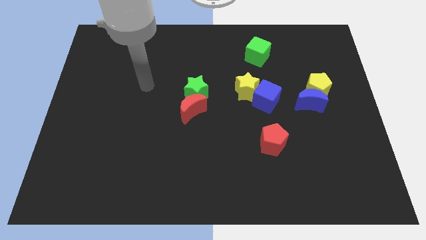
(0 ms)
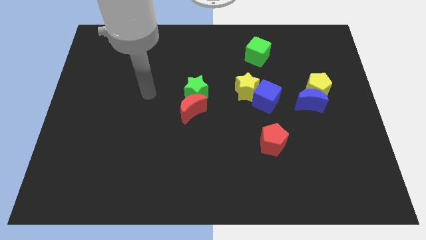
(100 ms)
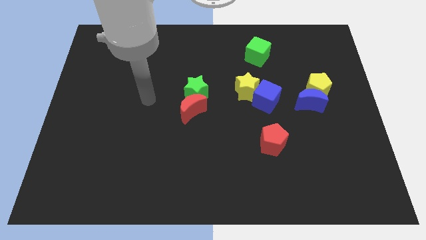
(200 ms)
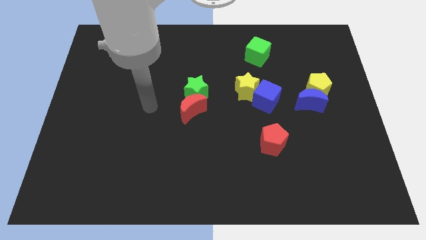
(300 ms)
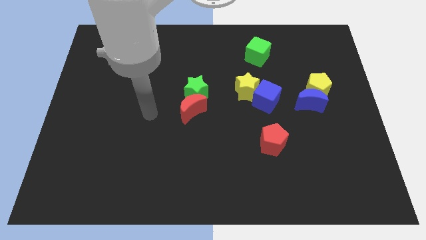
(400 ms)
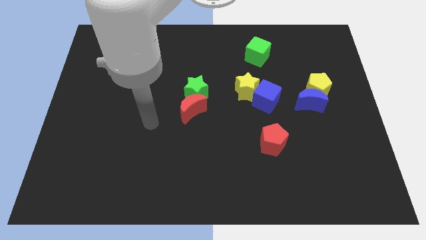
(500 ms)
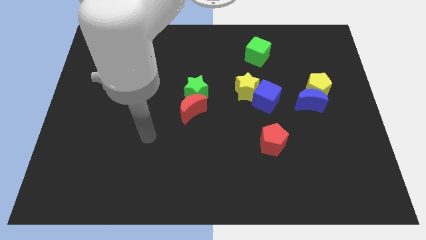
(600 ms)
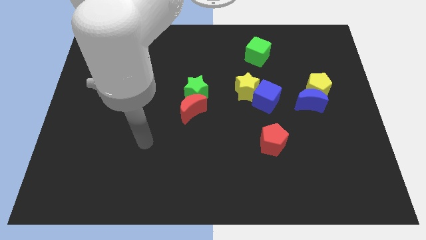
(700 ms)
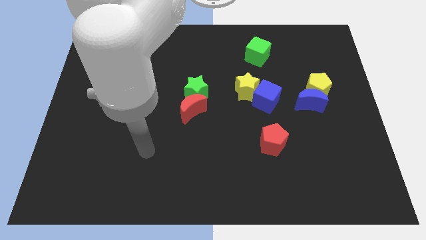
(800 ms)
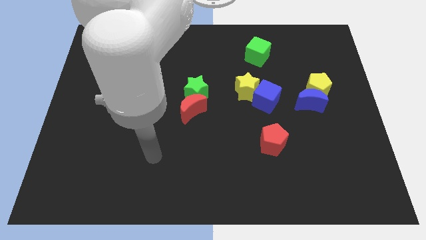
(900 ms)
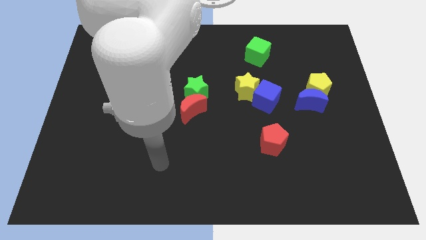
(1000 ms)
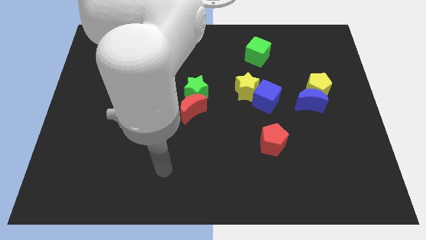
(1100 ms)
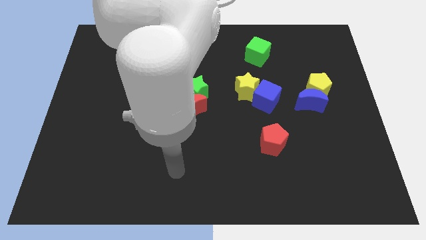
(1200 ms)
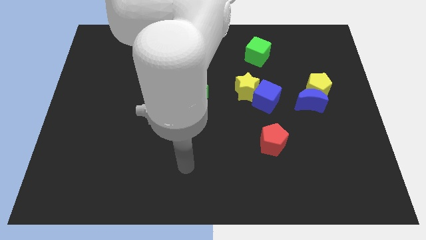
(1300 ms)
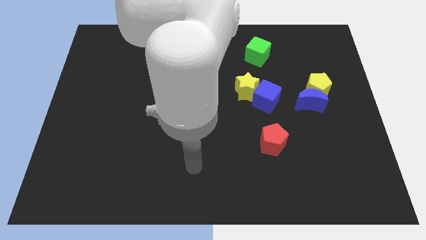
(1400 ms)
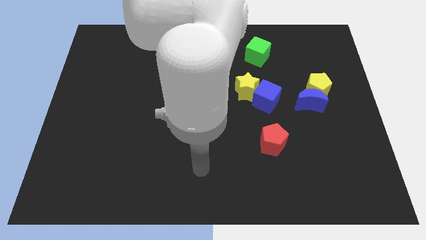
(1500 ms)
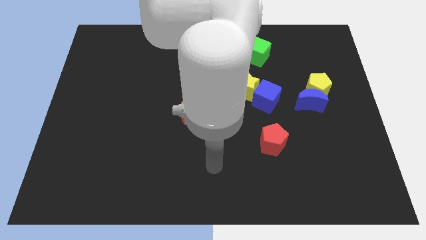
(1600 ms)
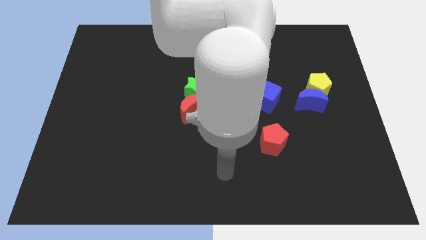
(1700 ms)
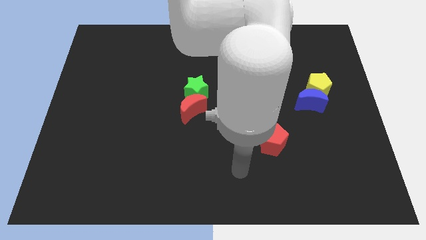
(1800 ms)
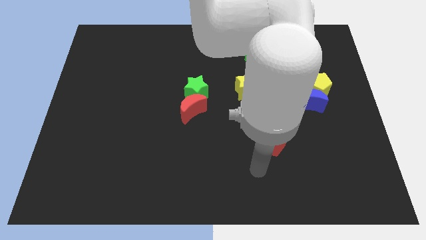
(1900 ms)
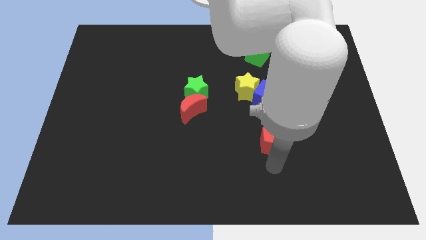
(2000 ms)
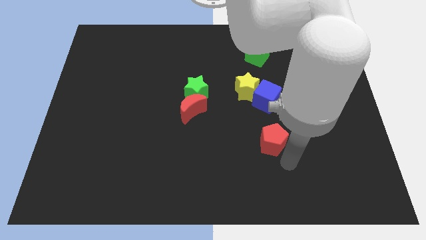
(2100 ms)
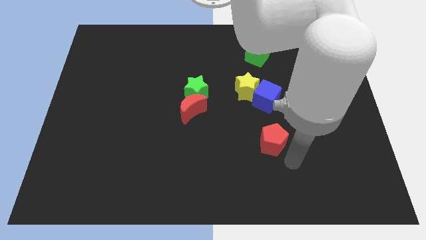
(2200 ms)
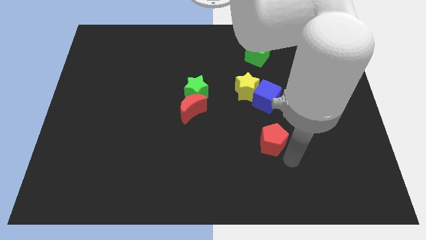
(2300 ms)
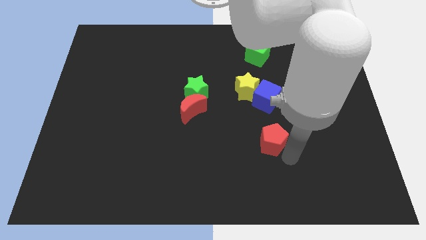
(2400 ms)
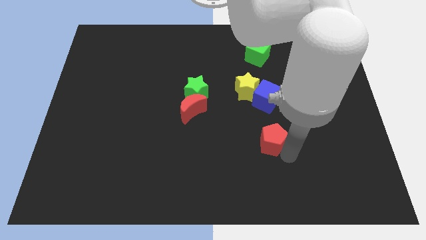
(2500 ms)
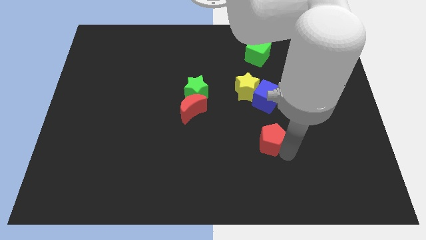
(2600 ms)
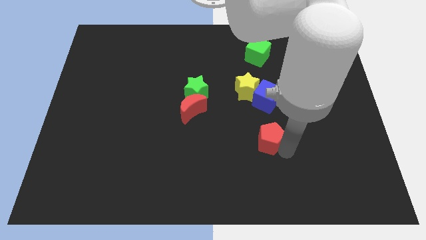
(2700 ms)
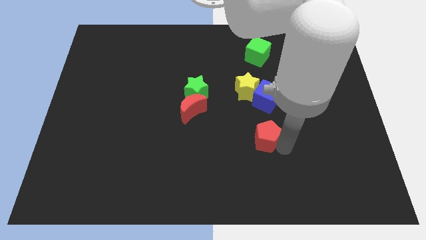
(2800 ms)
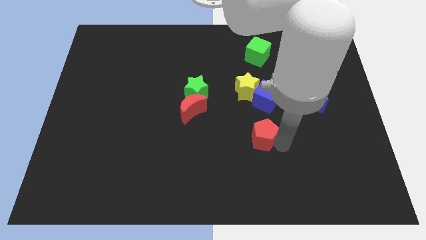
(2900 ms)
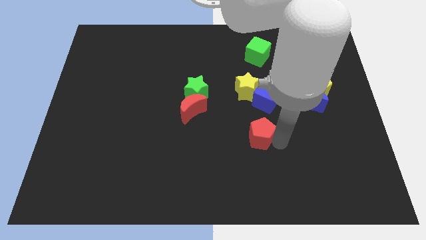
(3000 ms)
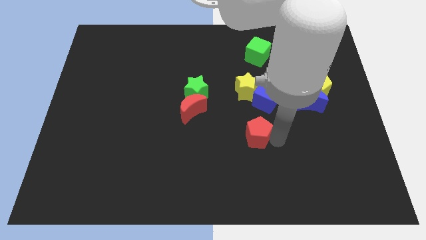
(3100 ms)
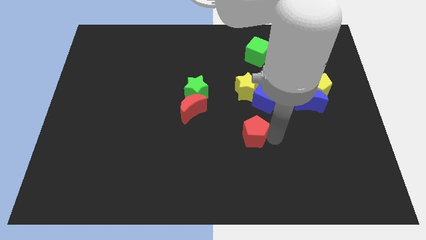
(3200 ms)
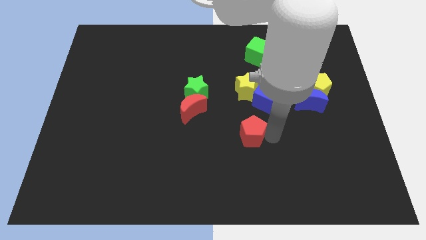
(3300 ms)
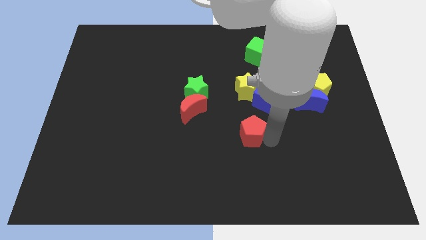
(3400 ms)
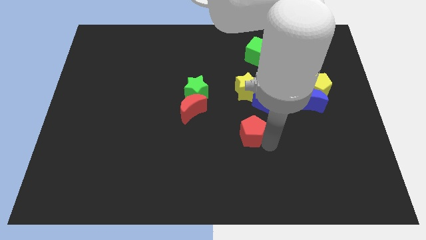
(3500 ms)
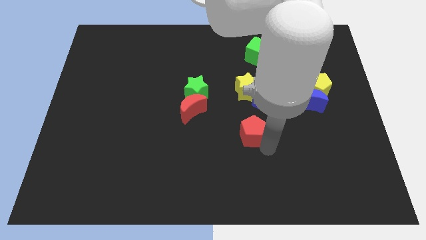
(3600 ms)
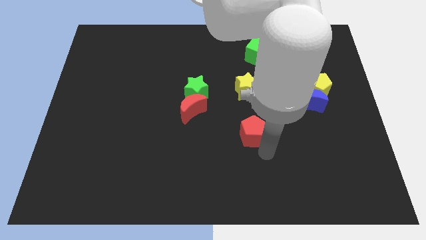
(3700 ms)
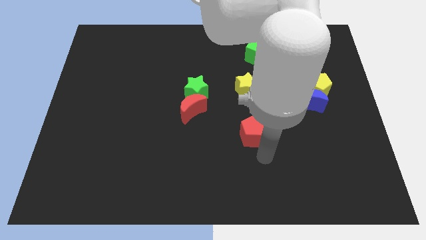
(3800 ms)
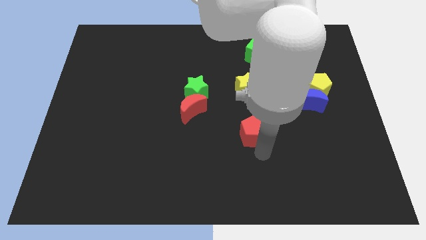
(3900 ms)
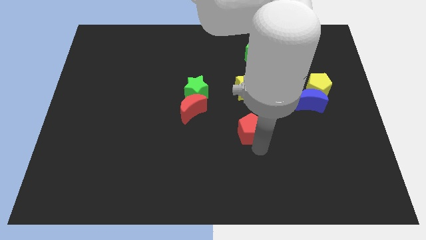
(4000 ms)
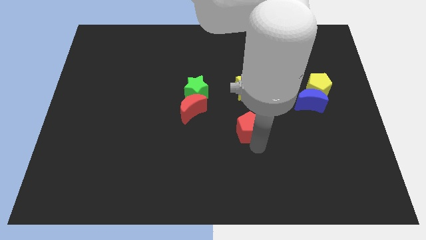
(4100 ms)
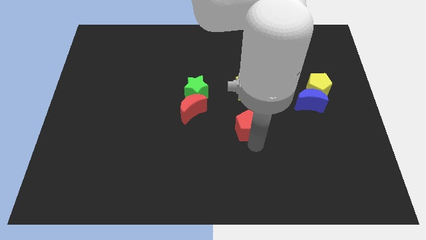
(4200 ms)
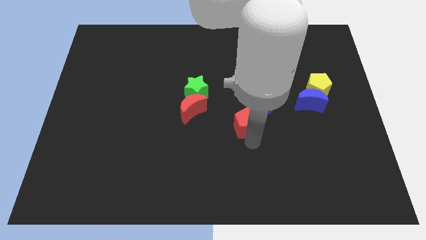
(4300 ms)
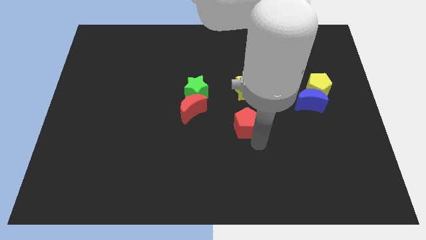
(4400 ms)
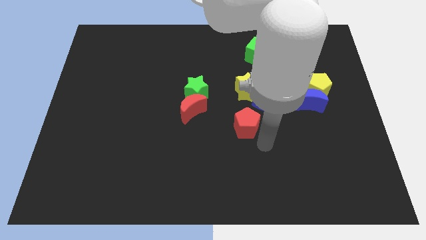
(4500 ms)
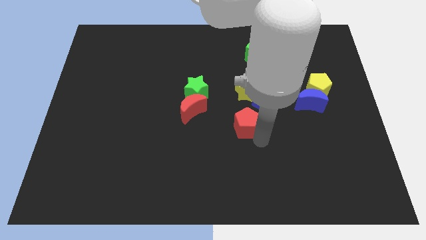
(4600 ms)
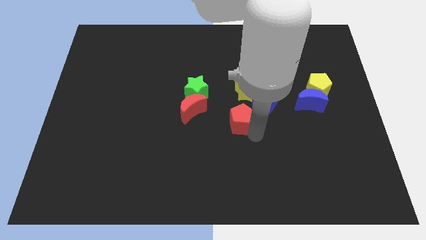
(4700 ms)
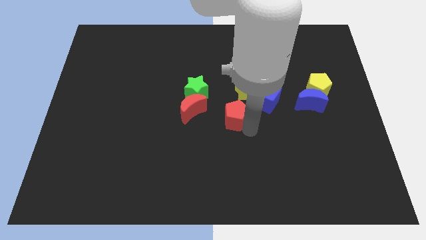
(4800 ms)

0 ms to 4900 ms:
put the red pentagon to the bottom left side of the yellow star

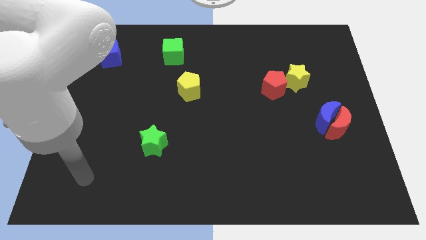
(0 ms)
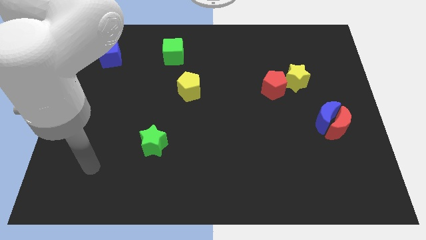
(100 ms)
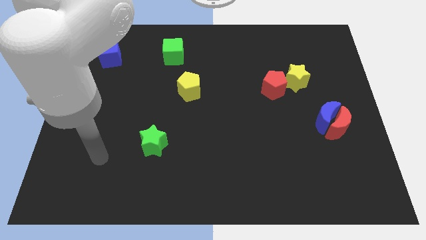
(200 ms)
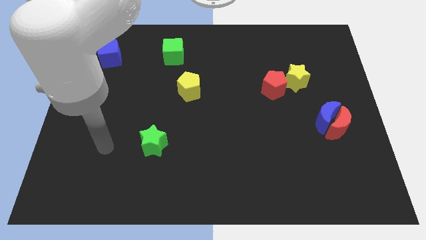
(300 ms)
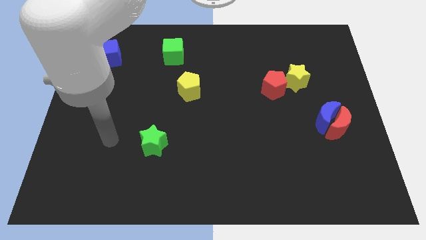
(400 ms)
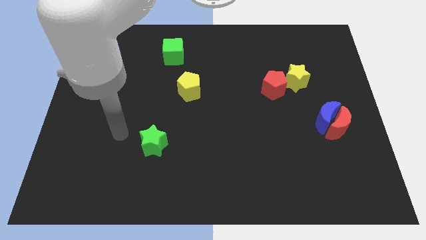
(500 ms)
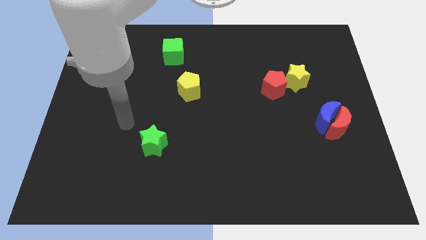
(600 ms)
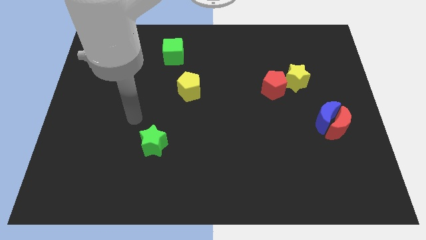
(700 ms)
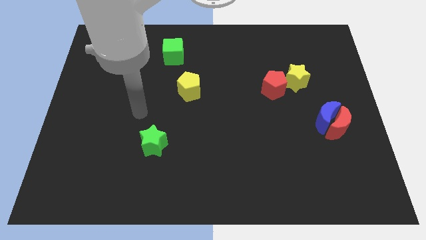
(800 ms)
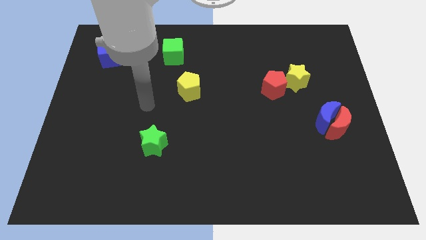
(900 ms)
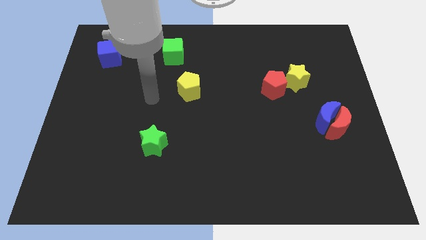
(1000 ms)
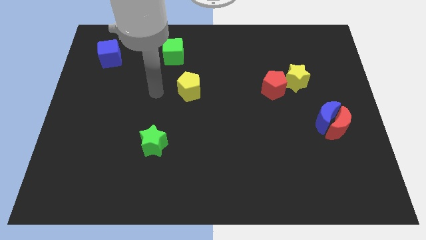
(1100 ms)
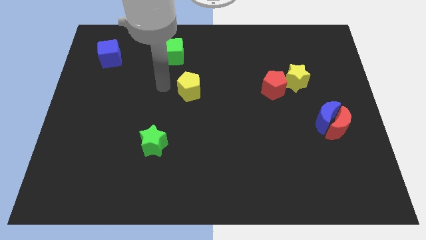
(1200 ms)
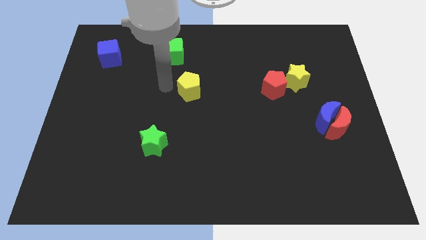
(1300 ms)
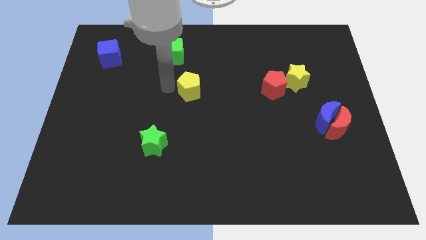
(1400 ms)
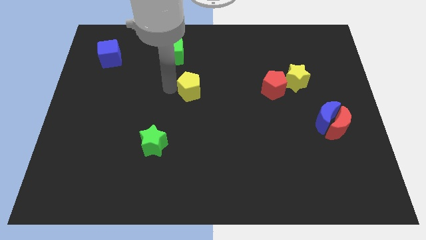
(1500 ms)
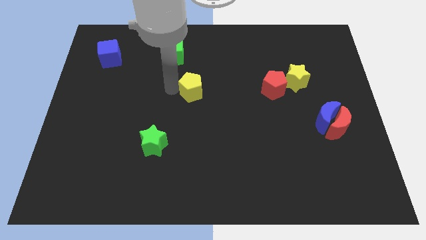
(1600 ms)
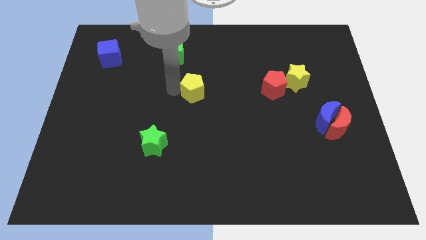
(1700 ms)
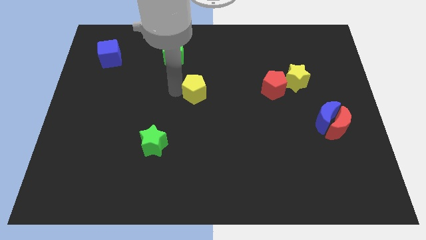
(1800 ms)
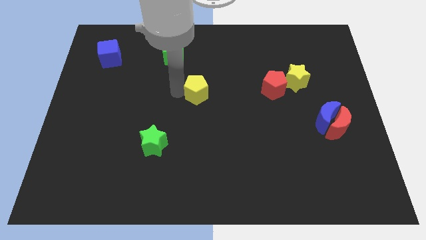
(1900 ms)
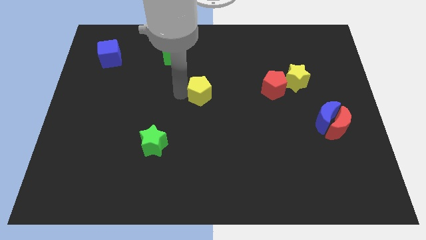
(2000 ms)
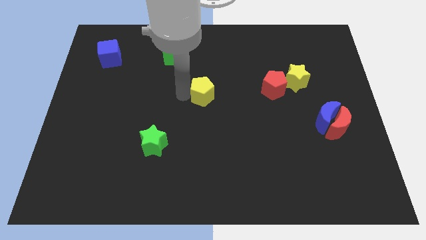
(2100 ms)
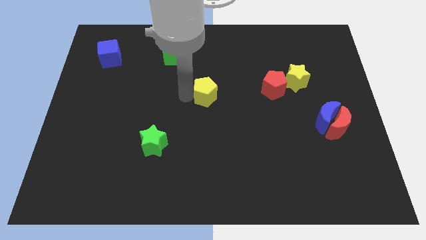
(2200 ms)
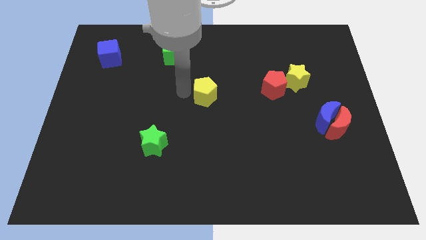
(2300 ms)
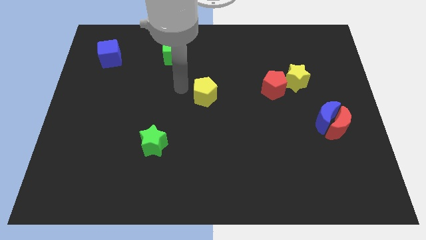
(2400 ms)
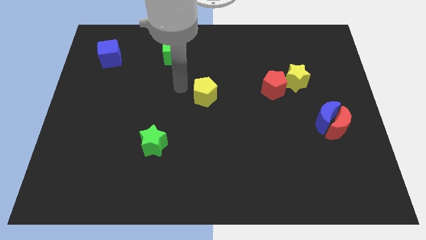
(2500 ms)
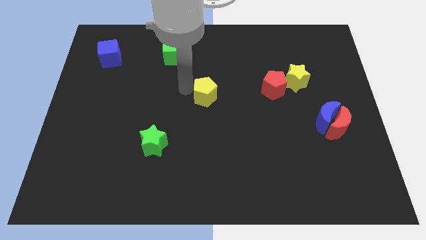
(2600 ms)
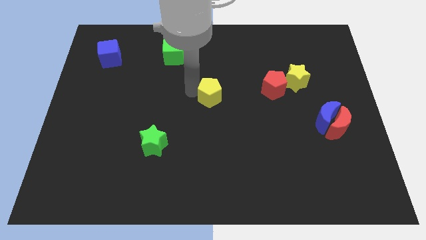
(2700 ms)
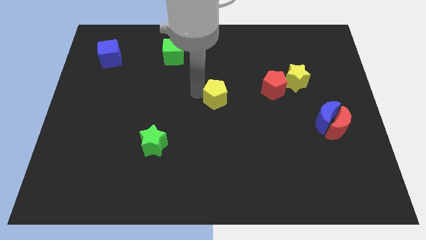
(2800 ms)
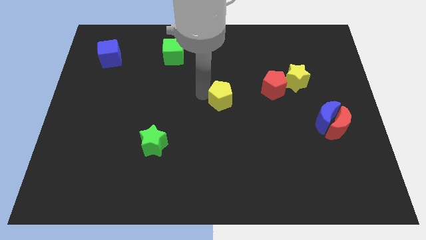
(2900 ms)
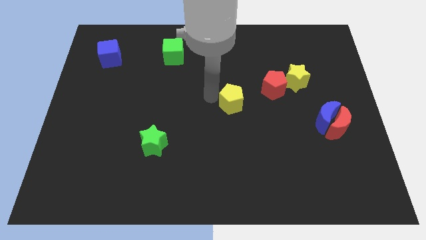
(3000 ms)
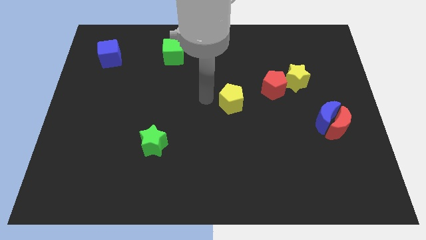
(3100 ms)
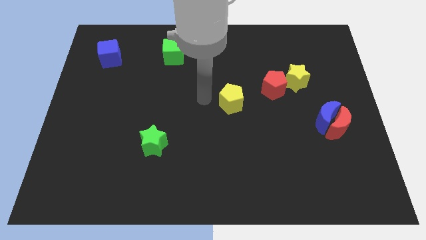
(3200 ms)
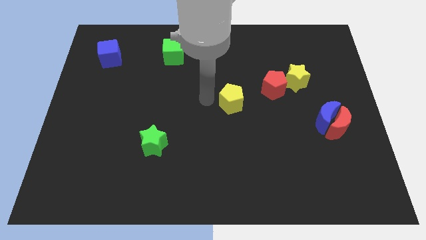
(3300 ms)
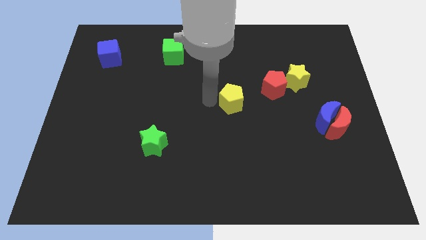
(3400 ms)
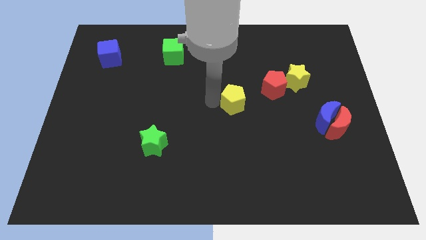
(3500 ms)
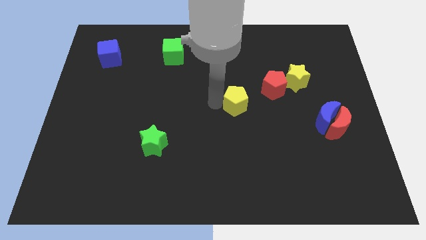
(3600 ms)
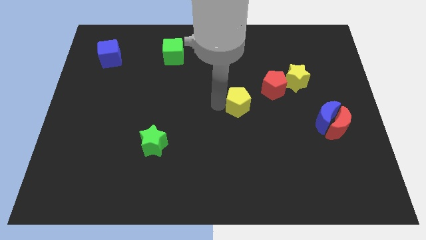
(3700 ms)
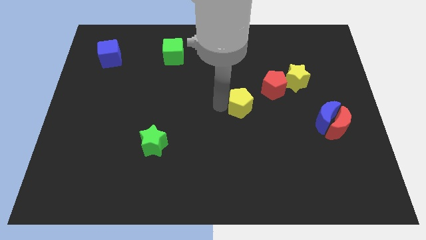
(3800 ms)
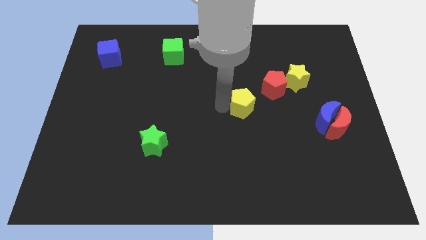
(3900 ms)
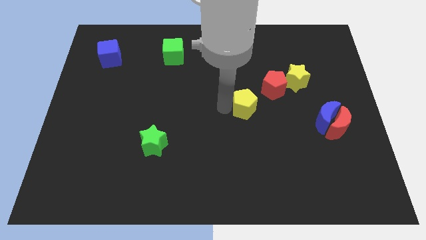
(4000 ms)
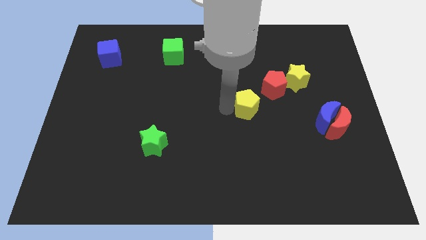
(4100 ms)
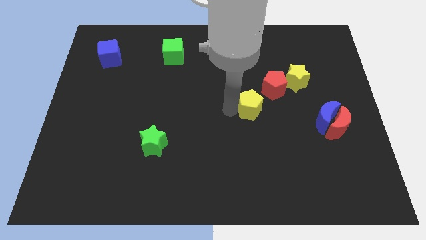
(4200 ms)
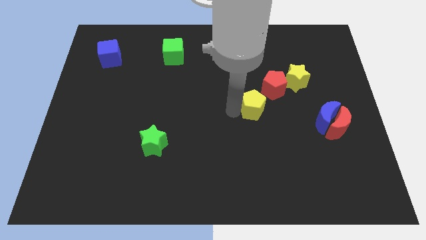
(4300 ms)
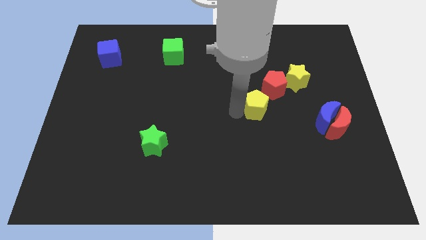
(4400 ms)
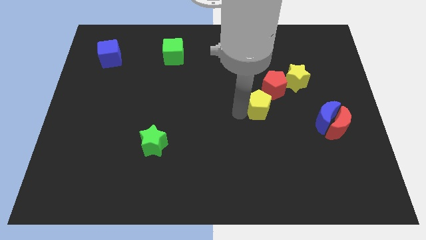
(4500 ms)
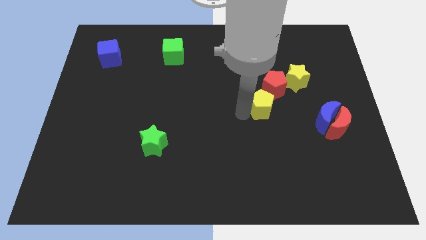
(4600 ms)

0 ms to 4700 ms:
move the yellow pentagon diagonally down and to the left of the yellow star
